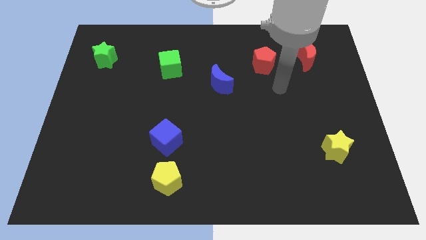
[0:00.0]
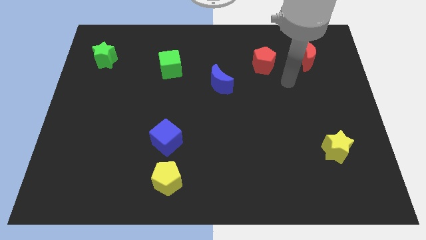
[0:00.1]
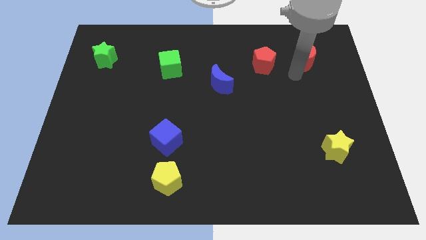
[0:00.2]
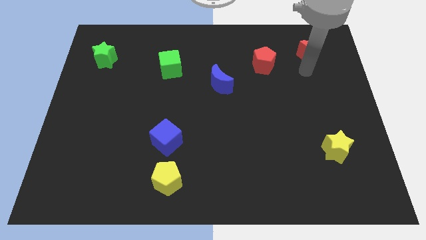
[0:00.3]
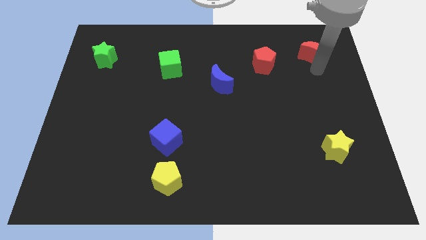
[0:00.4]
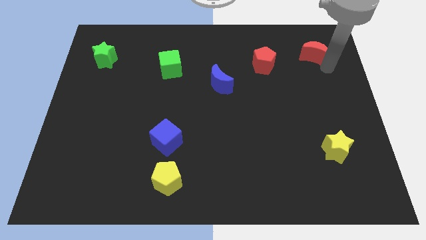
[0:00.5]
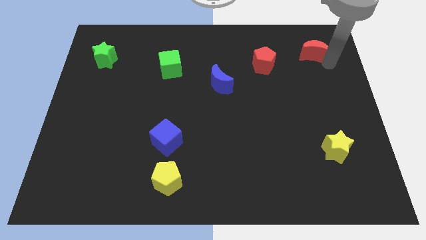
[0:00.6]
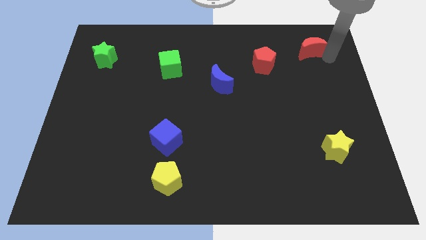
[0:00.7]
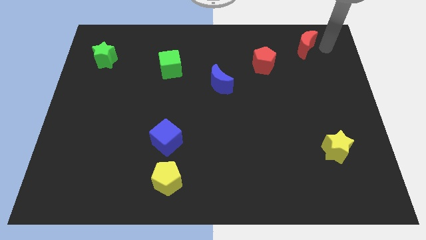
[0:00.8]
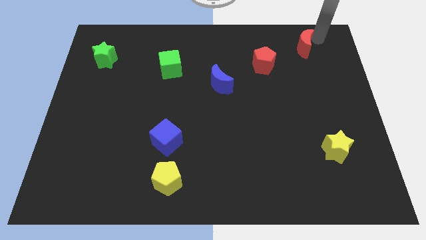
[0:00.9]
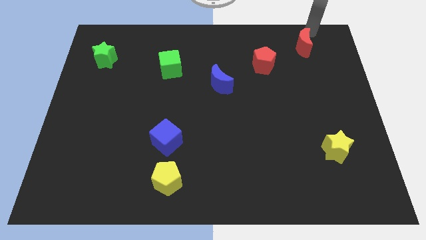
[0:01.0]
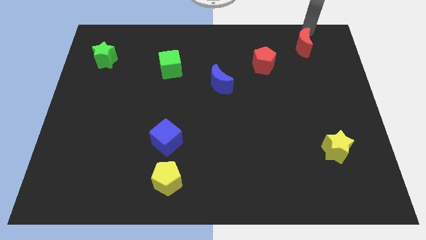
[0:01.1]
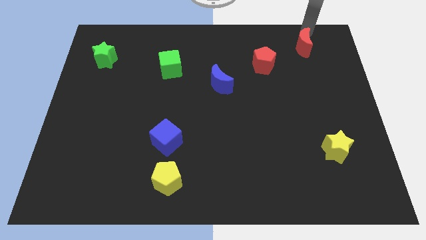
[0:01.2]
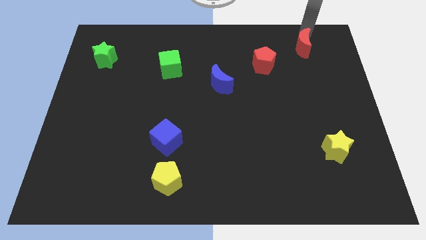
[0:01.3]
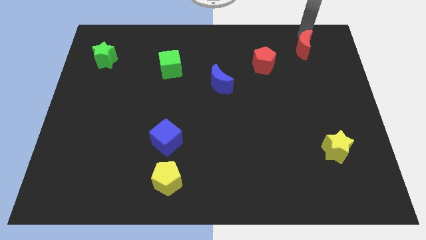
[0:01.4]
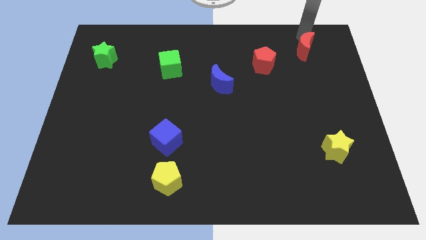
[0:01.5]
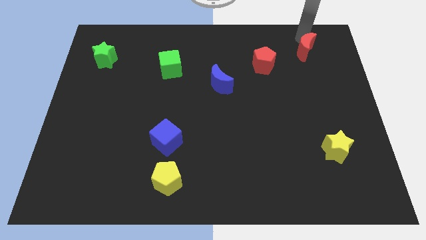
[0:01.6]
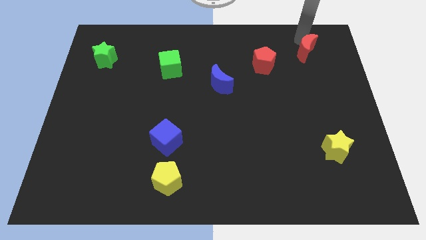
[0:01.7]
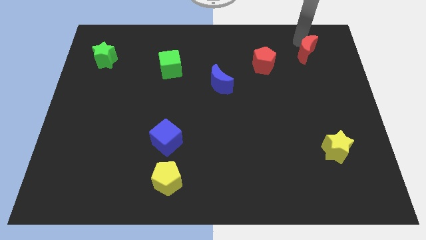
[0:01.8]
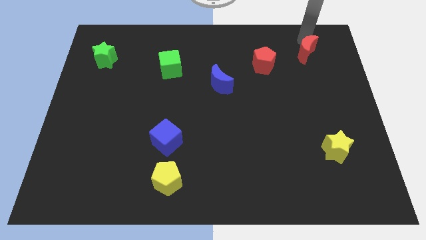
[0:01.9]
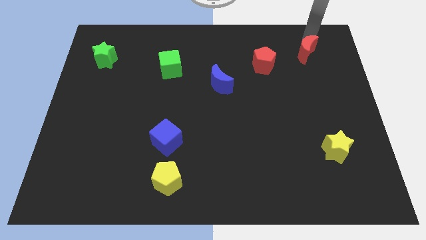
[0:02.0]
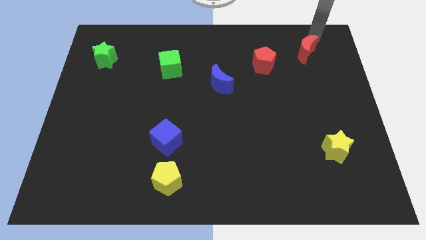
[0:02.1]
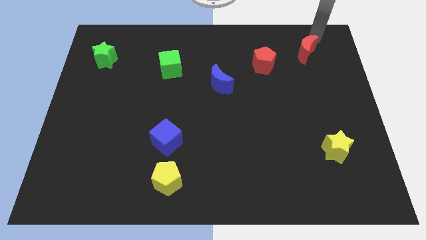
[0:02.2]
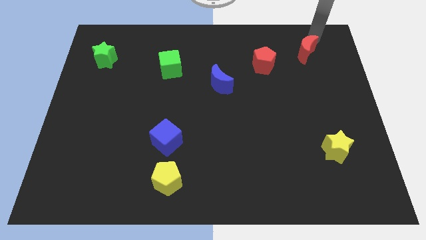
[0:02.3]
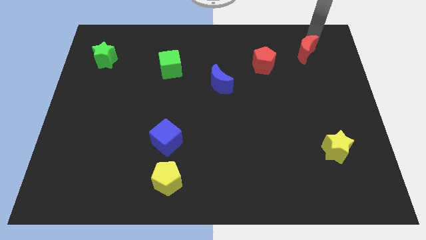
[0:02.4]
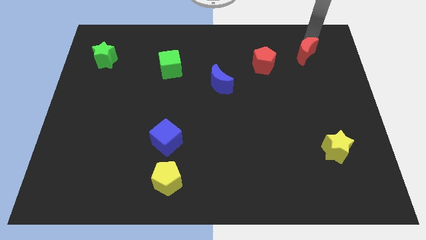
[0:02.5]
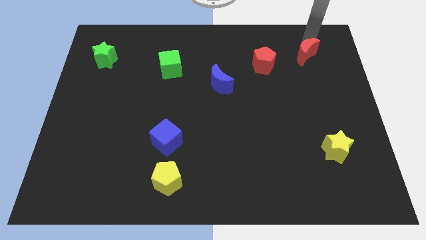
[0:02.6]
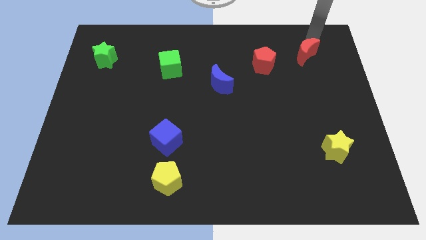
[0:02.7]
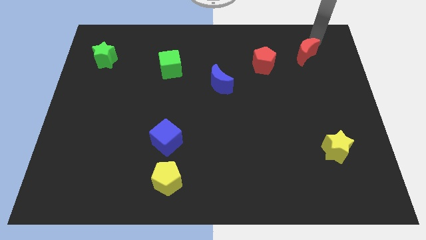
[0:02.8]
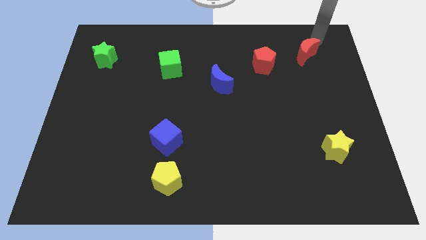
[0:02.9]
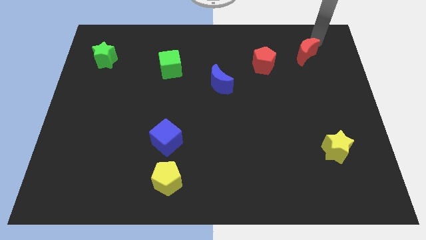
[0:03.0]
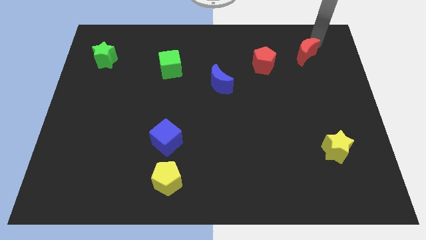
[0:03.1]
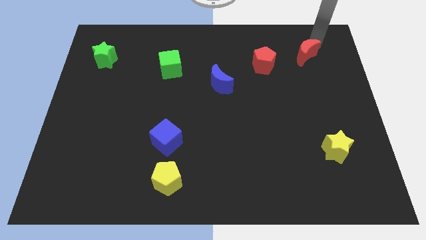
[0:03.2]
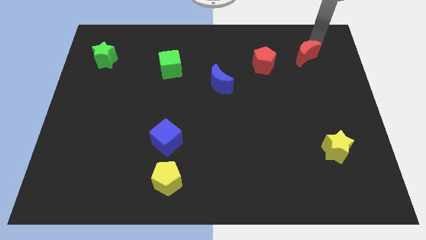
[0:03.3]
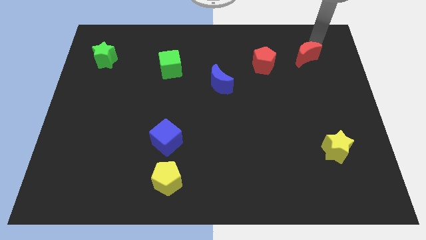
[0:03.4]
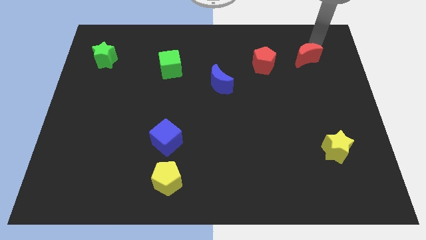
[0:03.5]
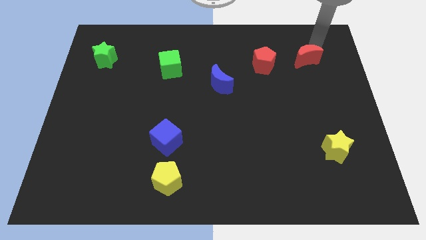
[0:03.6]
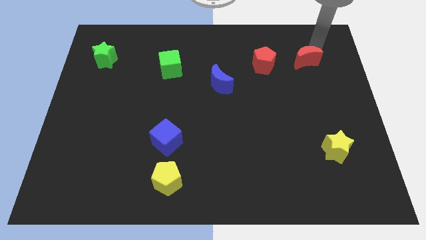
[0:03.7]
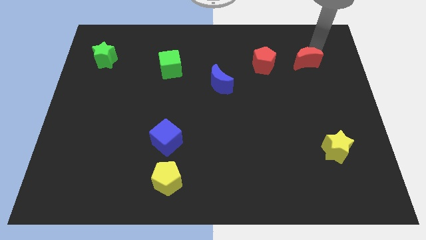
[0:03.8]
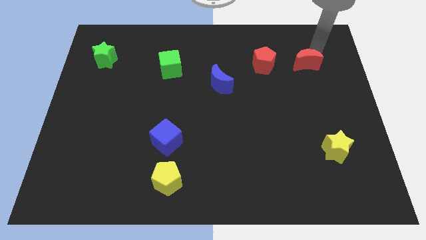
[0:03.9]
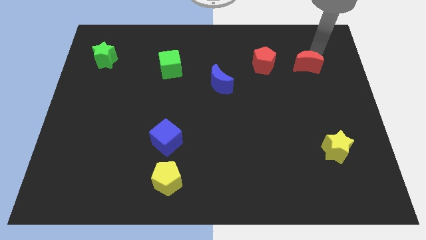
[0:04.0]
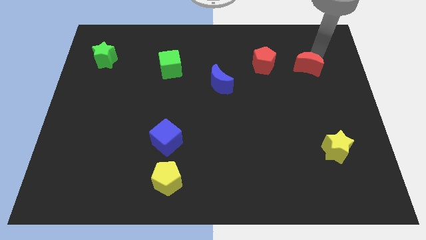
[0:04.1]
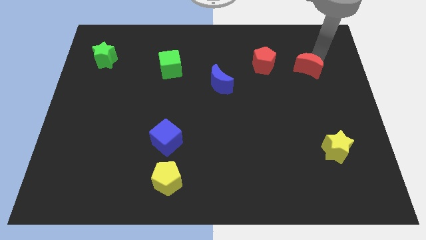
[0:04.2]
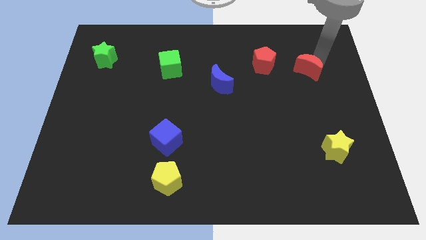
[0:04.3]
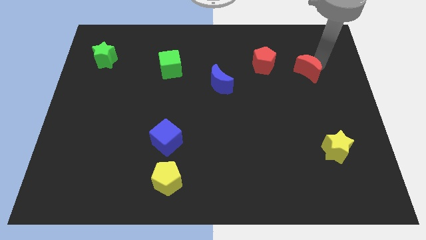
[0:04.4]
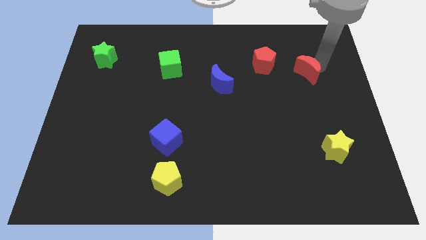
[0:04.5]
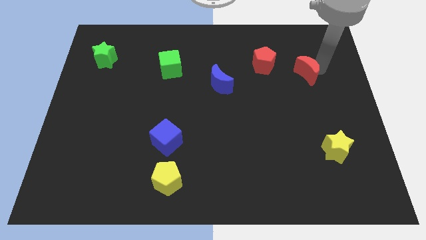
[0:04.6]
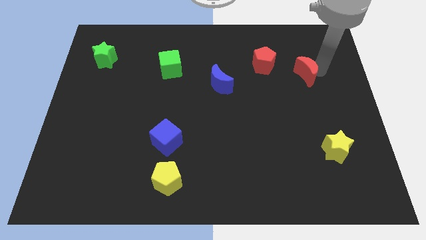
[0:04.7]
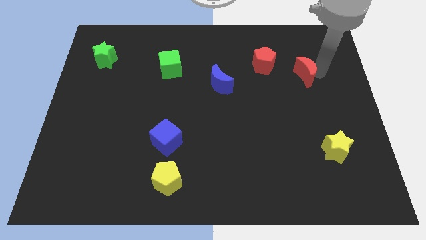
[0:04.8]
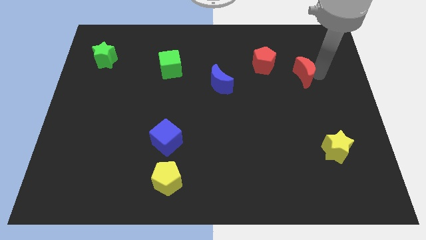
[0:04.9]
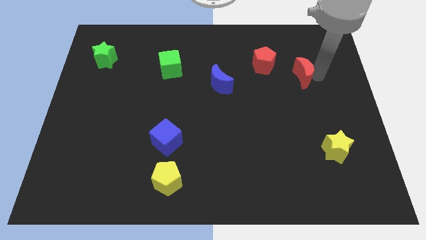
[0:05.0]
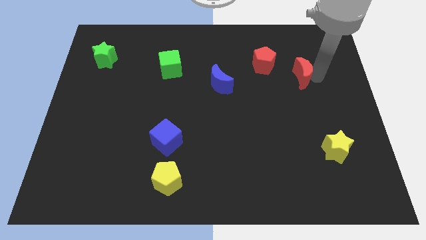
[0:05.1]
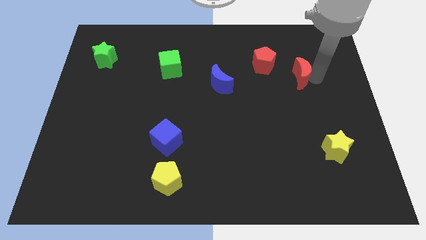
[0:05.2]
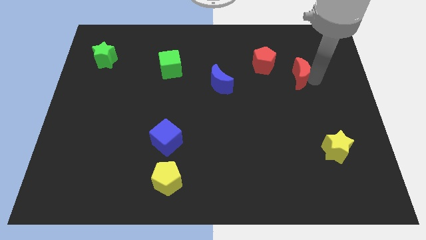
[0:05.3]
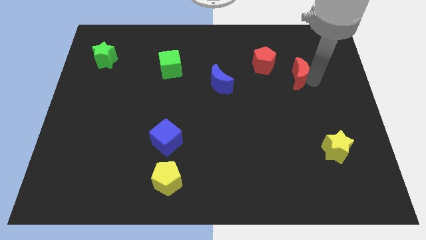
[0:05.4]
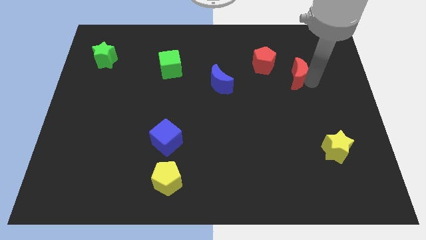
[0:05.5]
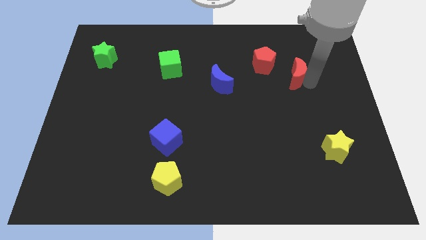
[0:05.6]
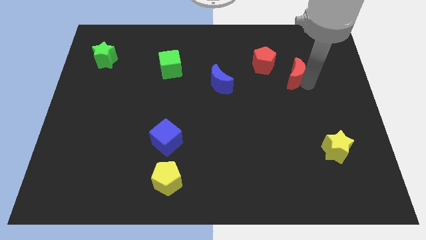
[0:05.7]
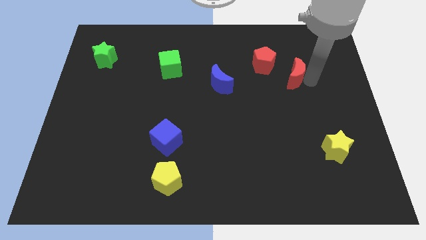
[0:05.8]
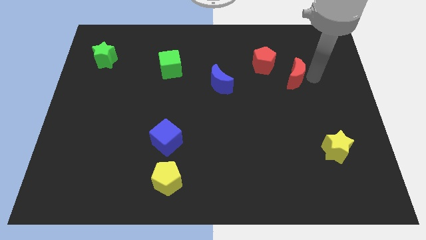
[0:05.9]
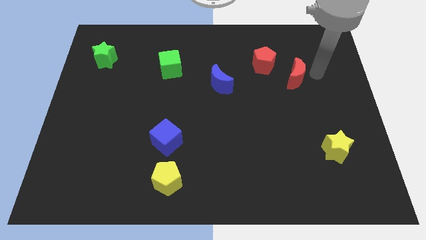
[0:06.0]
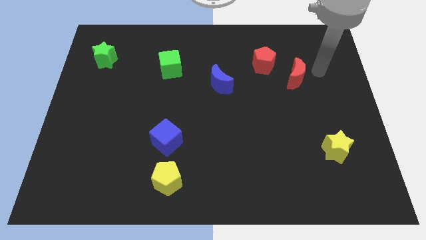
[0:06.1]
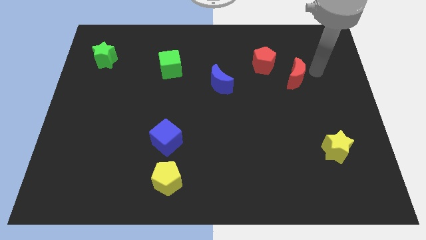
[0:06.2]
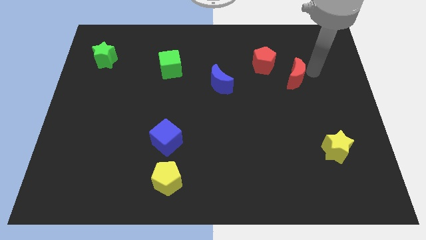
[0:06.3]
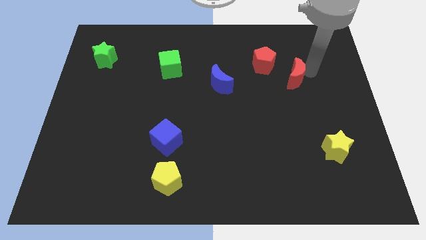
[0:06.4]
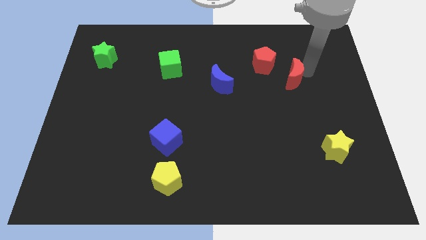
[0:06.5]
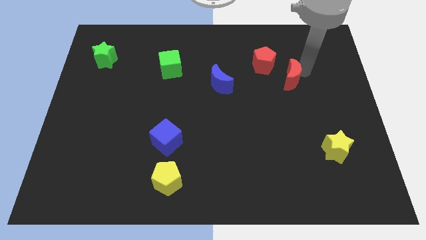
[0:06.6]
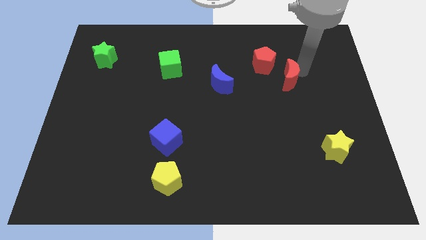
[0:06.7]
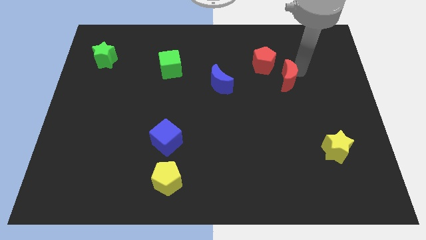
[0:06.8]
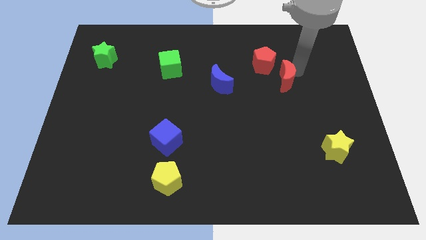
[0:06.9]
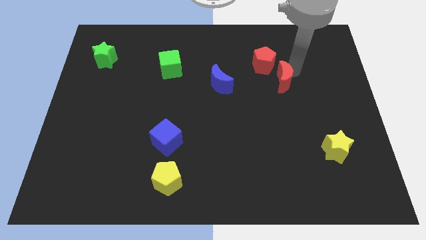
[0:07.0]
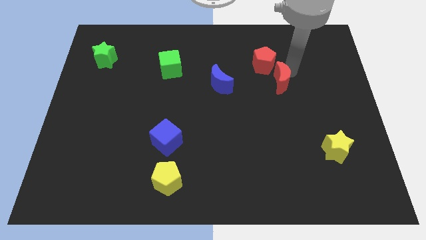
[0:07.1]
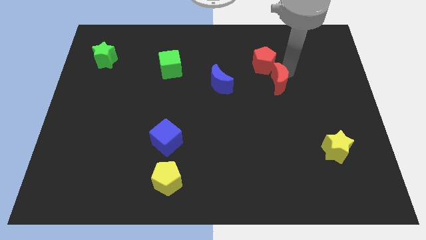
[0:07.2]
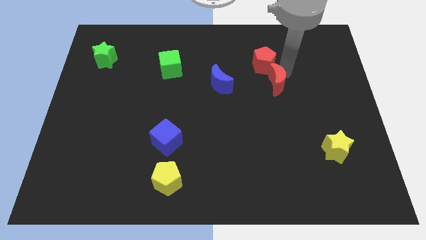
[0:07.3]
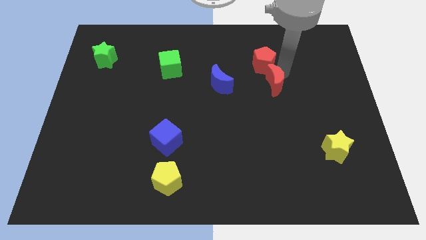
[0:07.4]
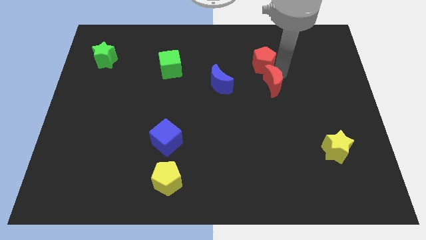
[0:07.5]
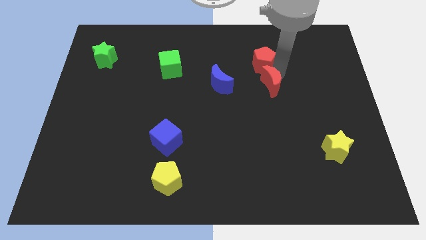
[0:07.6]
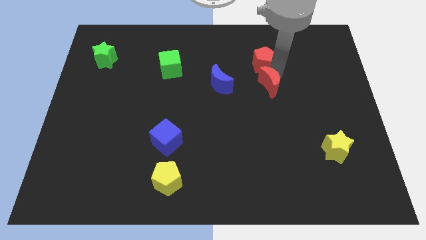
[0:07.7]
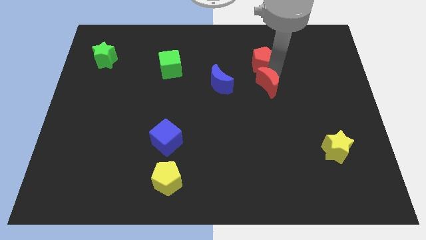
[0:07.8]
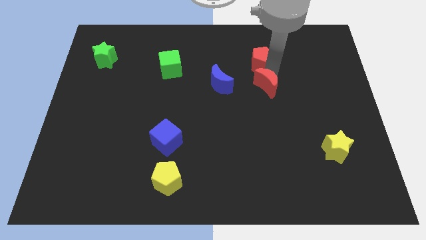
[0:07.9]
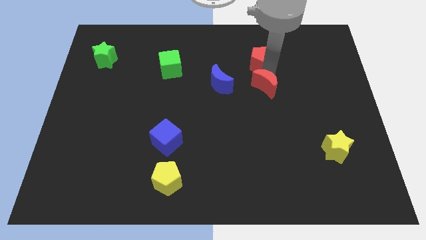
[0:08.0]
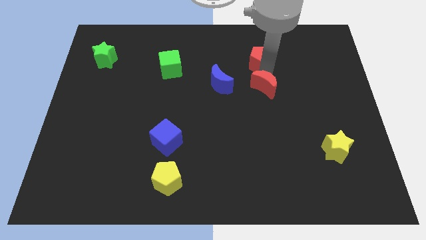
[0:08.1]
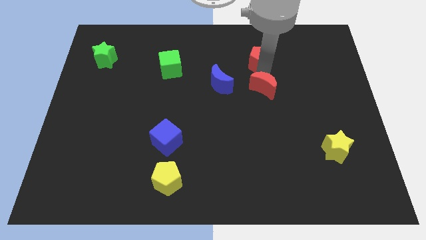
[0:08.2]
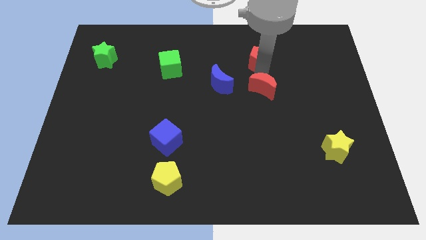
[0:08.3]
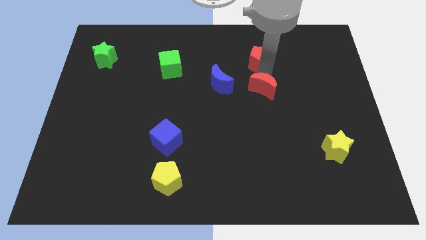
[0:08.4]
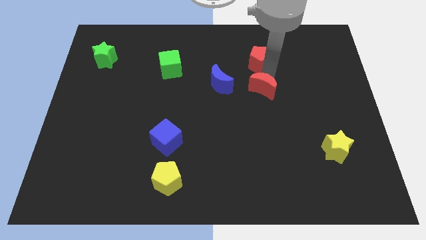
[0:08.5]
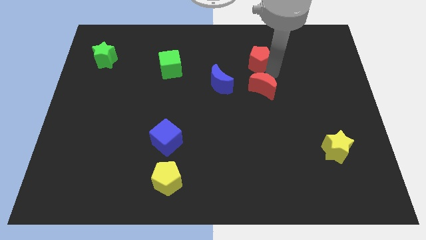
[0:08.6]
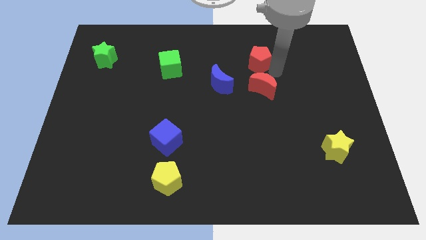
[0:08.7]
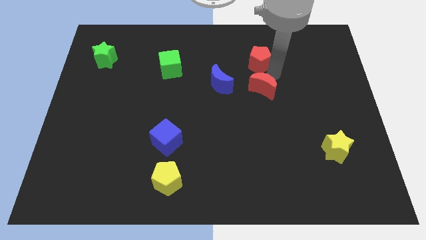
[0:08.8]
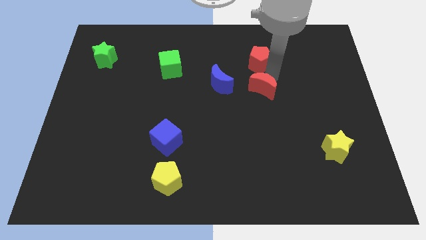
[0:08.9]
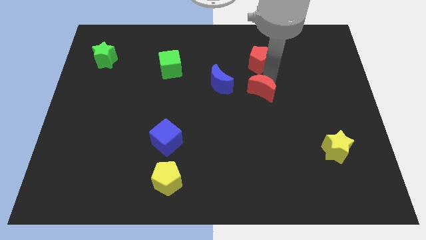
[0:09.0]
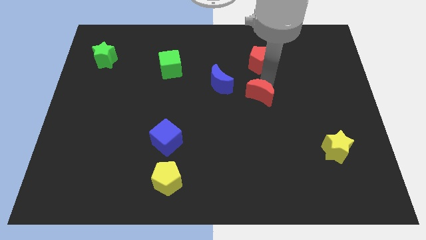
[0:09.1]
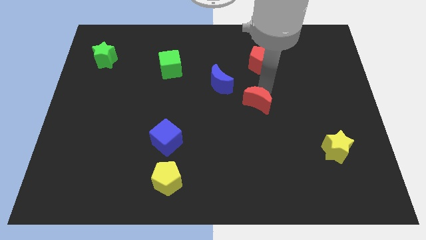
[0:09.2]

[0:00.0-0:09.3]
push the red moon downwards and left
